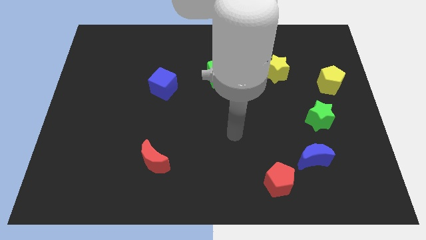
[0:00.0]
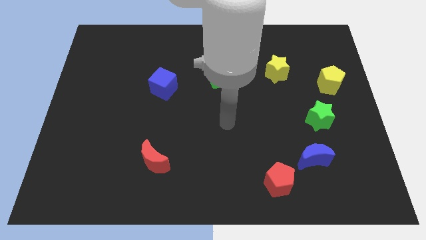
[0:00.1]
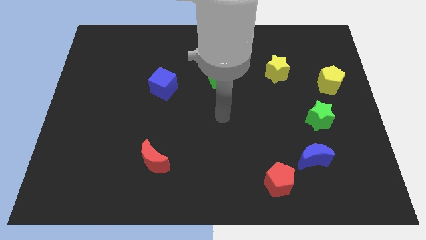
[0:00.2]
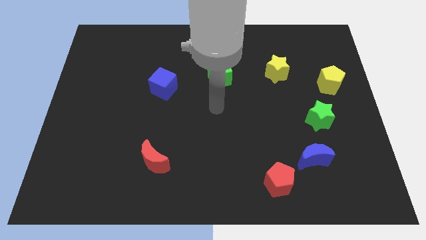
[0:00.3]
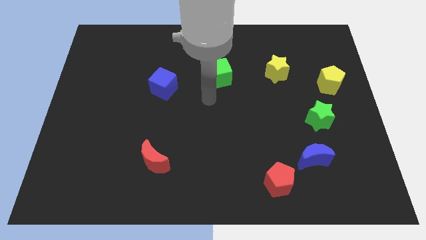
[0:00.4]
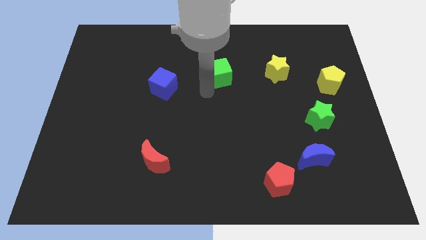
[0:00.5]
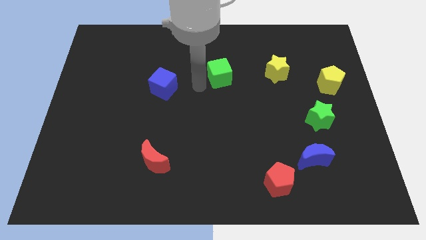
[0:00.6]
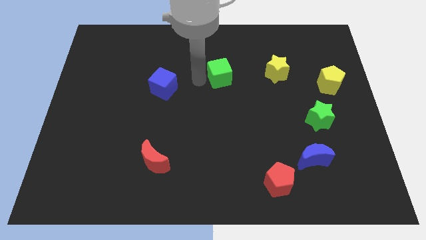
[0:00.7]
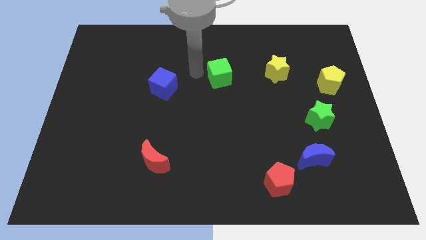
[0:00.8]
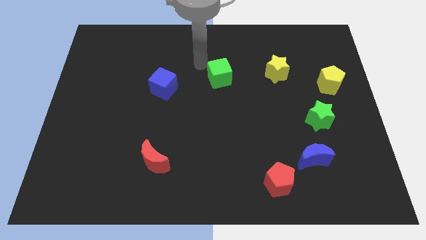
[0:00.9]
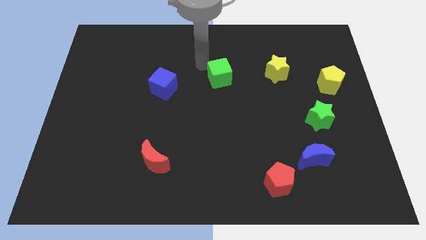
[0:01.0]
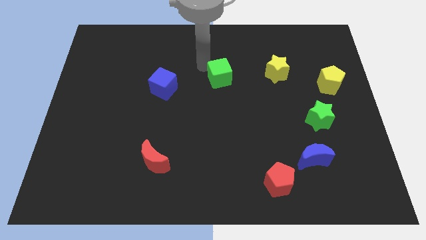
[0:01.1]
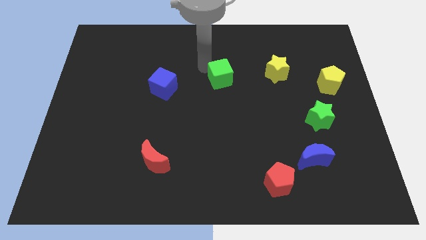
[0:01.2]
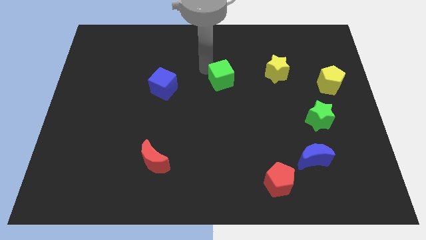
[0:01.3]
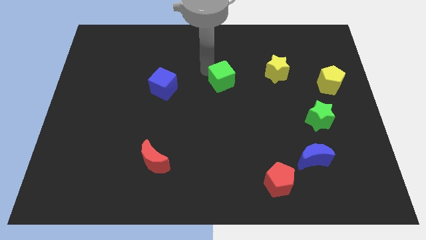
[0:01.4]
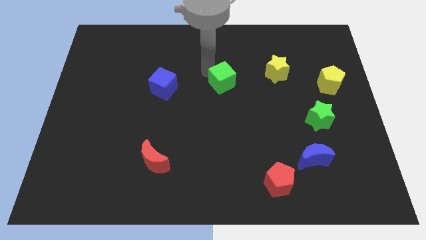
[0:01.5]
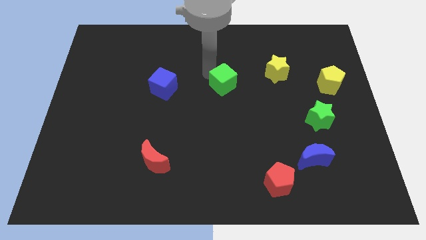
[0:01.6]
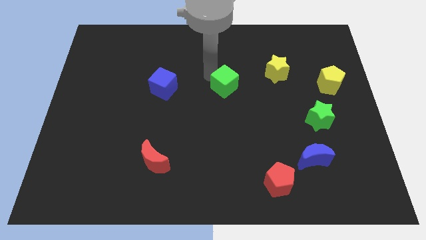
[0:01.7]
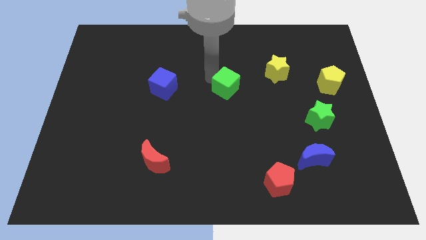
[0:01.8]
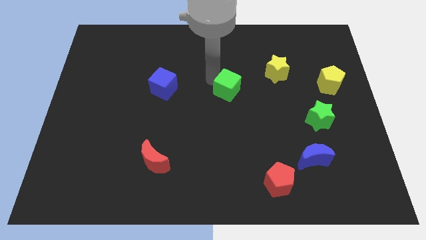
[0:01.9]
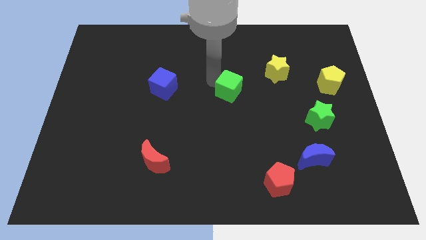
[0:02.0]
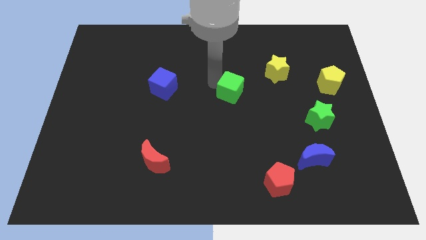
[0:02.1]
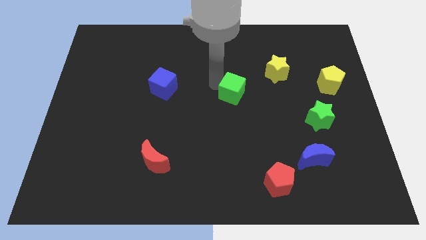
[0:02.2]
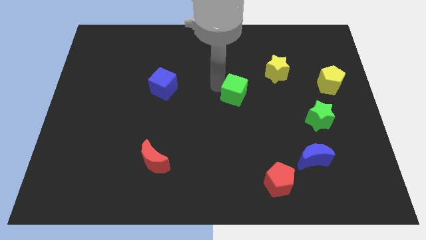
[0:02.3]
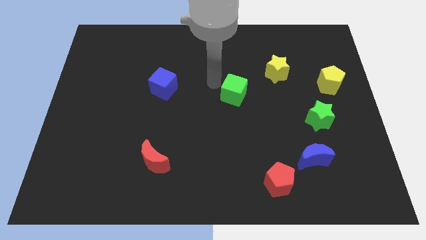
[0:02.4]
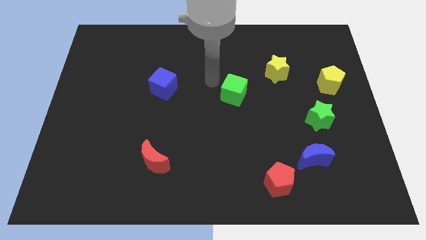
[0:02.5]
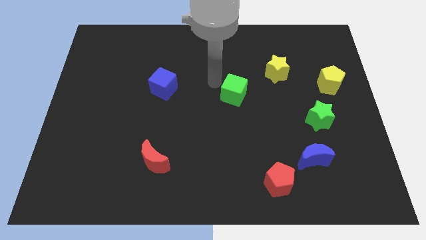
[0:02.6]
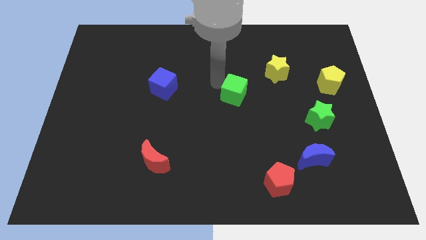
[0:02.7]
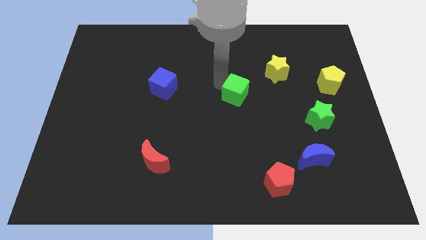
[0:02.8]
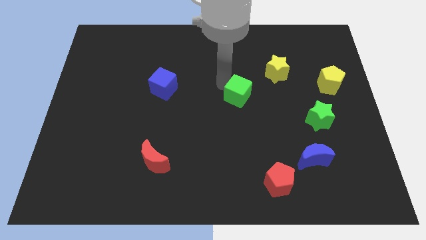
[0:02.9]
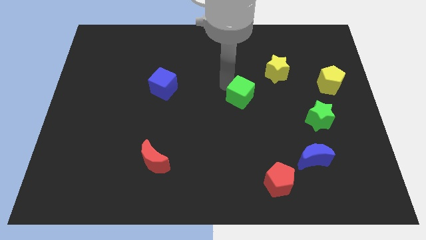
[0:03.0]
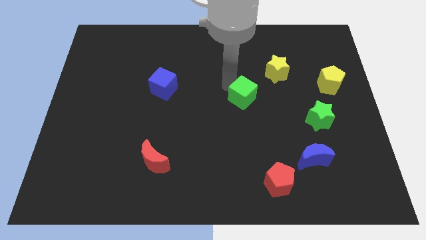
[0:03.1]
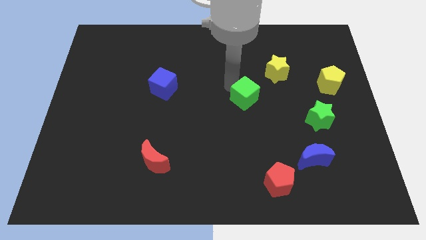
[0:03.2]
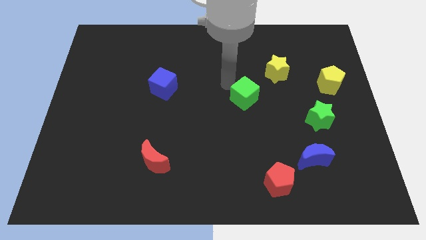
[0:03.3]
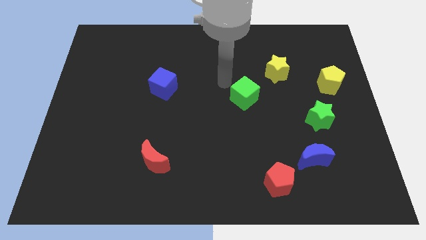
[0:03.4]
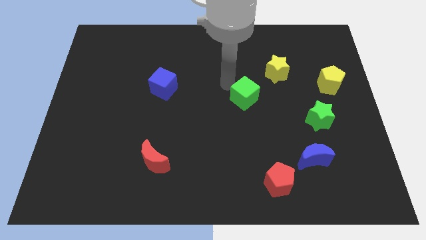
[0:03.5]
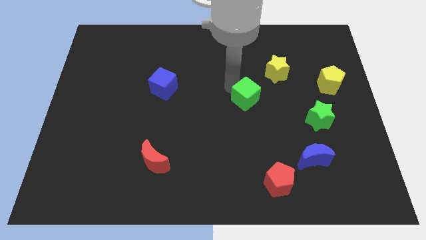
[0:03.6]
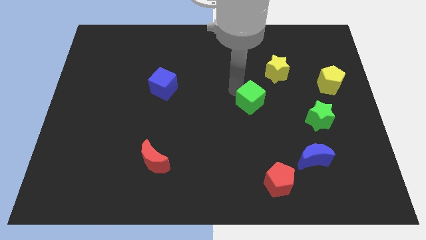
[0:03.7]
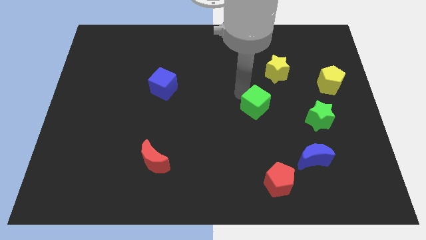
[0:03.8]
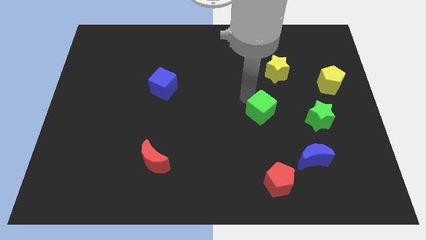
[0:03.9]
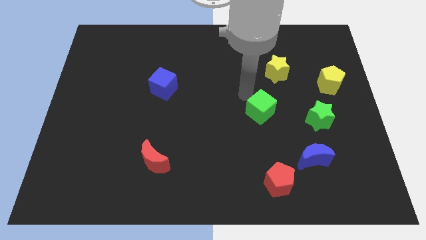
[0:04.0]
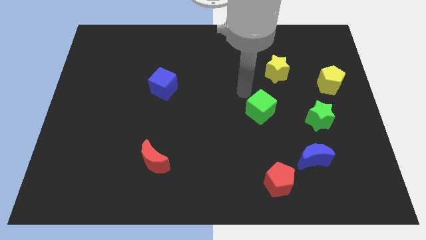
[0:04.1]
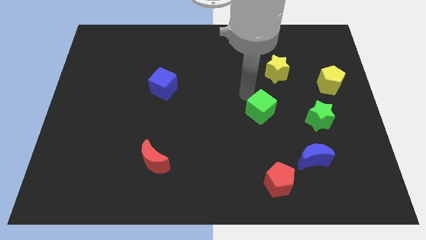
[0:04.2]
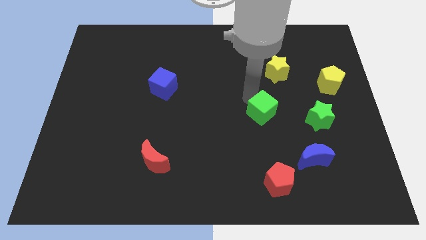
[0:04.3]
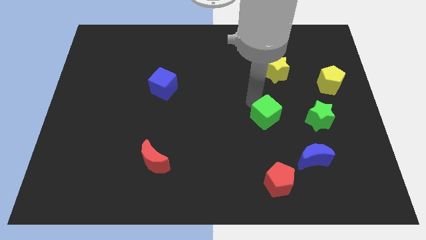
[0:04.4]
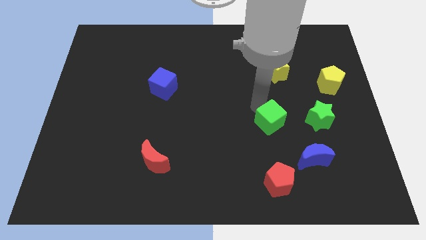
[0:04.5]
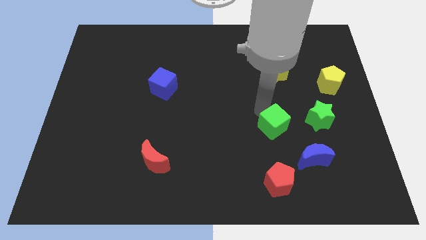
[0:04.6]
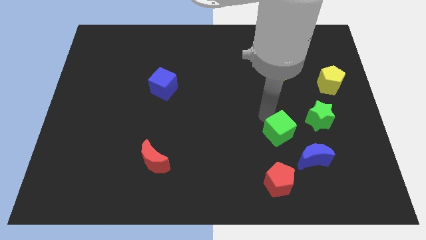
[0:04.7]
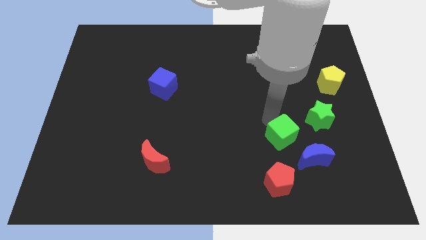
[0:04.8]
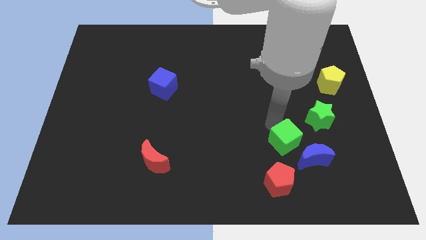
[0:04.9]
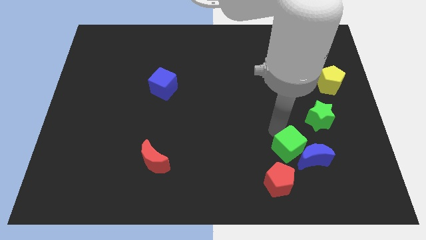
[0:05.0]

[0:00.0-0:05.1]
put the green cube towards the blue moon

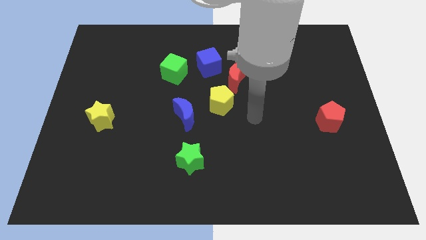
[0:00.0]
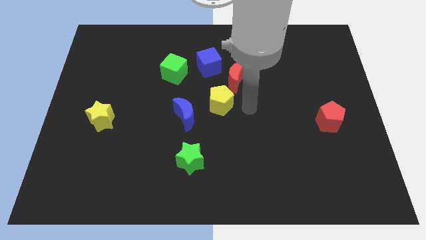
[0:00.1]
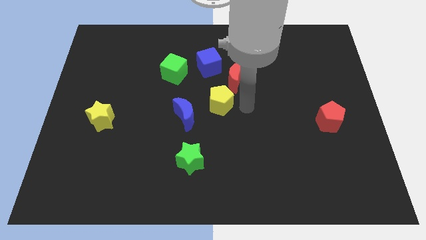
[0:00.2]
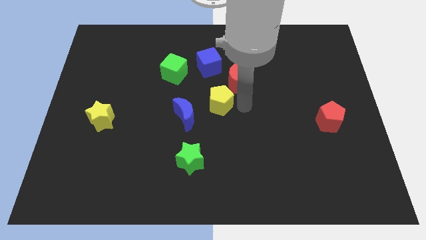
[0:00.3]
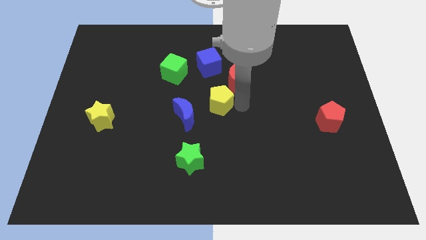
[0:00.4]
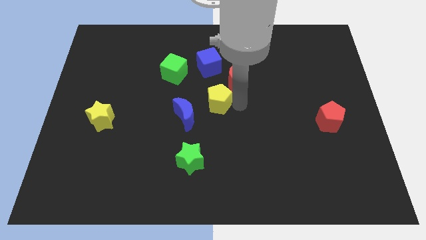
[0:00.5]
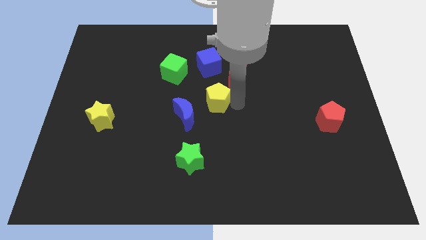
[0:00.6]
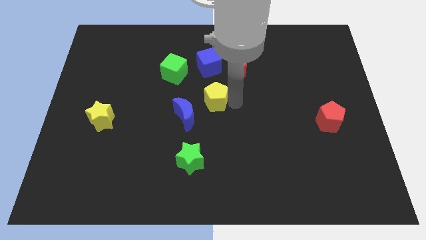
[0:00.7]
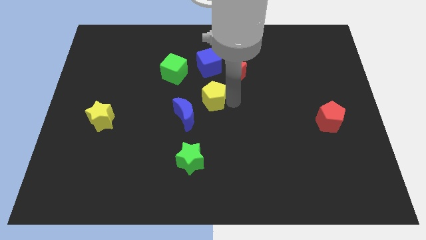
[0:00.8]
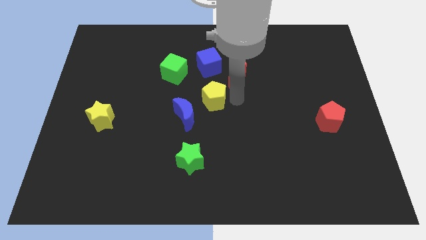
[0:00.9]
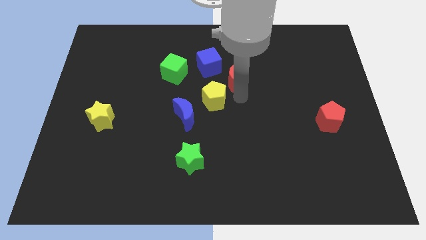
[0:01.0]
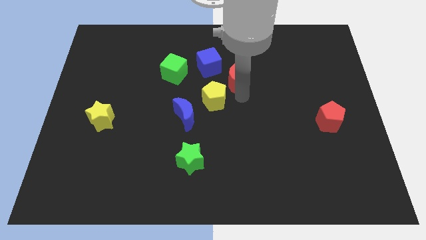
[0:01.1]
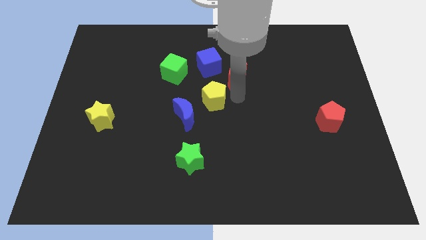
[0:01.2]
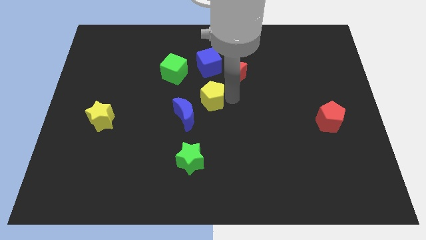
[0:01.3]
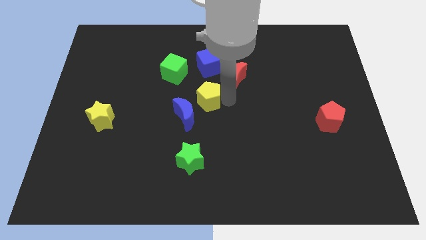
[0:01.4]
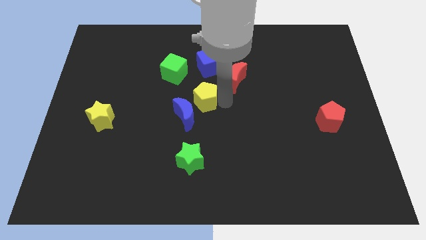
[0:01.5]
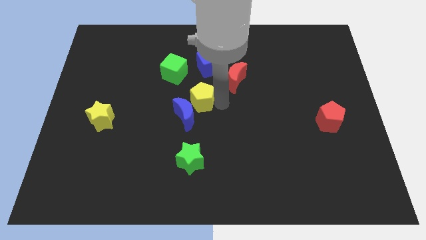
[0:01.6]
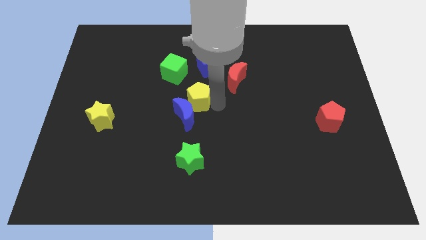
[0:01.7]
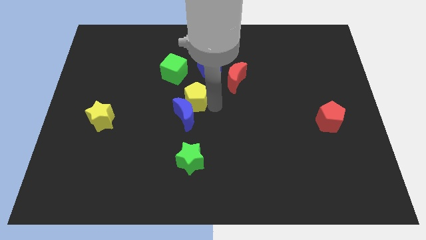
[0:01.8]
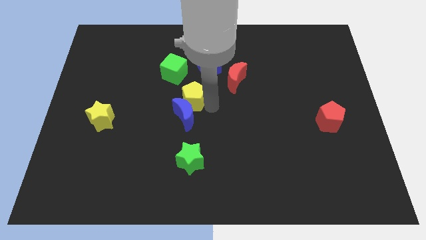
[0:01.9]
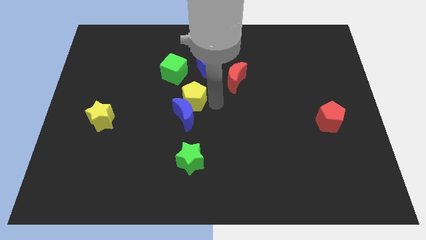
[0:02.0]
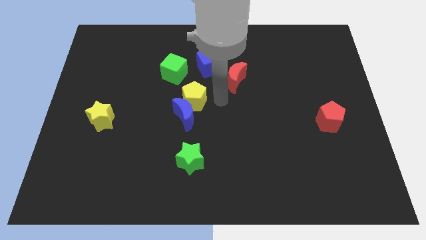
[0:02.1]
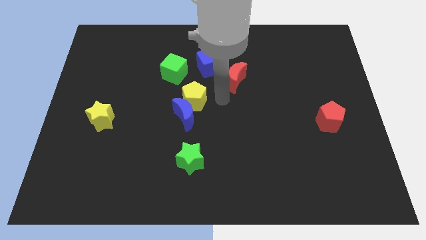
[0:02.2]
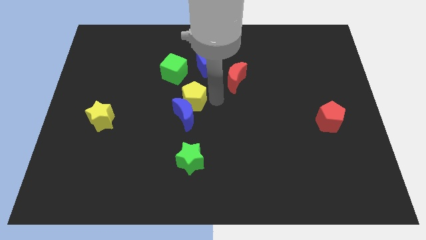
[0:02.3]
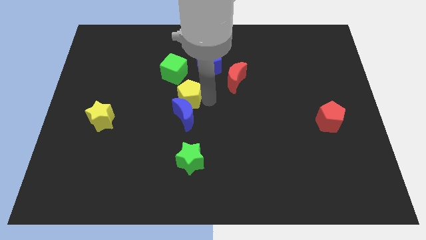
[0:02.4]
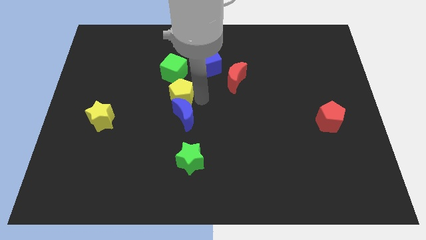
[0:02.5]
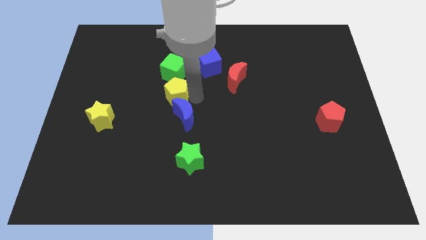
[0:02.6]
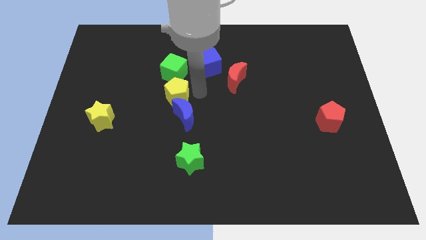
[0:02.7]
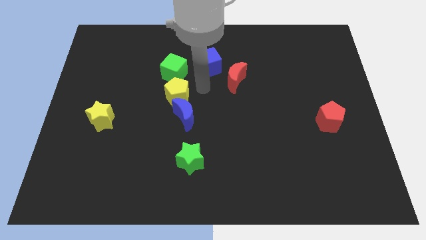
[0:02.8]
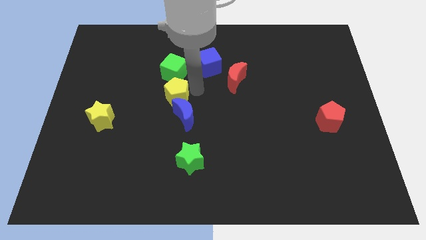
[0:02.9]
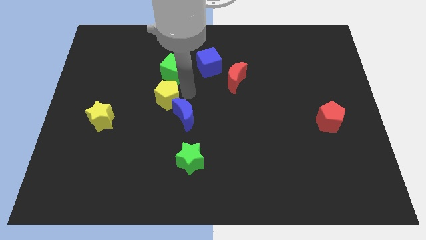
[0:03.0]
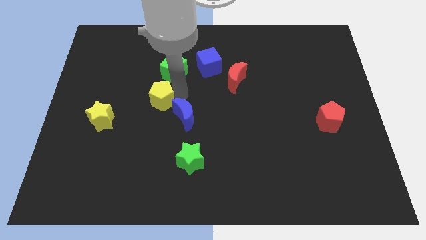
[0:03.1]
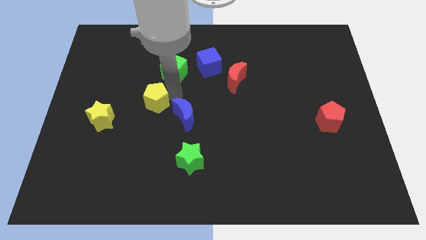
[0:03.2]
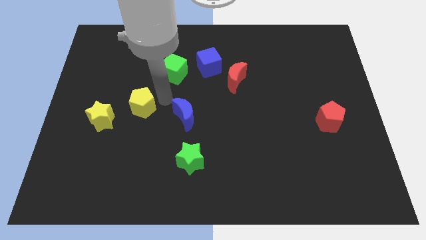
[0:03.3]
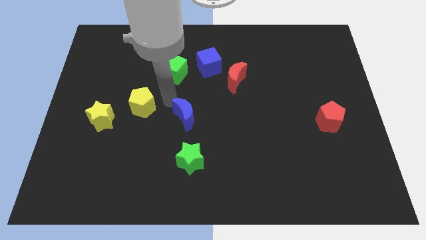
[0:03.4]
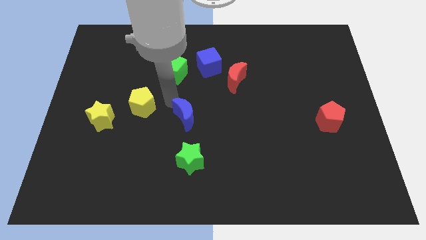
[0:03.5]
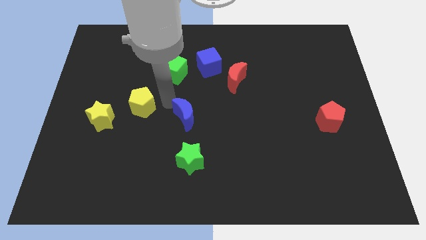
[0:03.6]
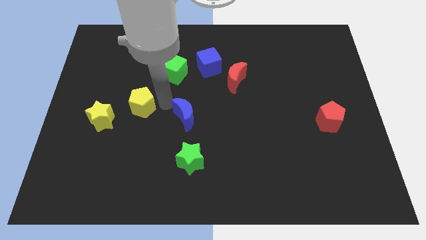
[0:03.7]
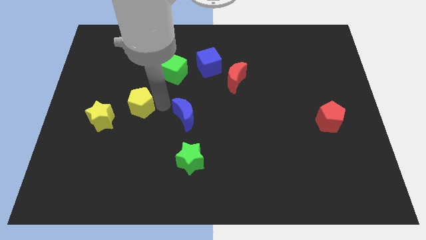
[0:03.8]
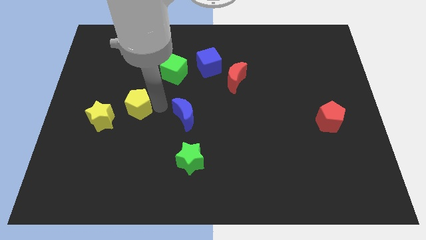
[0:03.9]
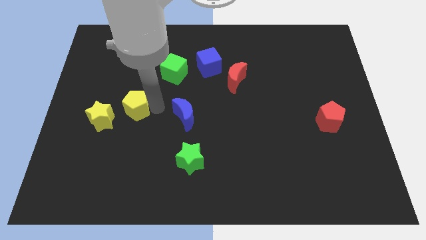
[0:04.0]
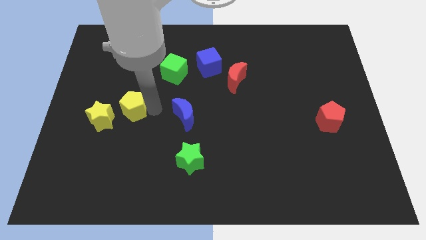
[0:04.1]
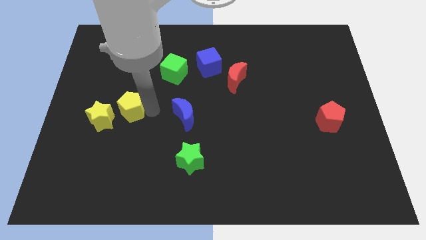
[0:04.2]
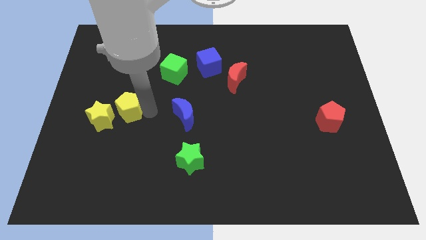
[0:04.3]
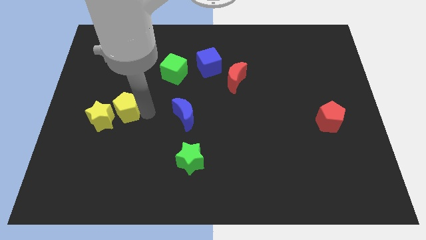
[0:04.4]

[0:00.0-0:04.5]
slide the yellow pentagon next to the yellow star
